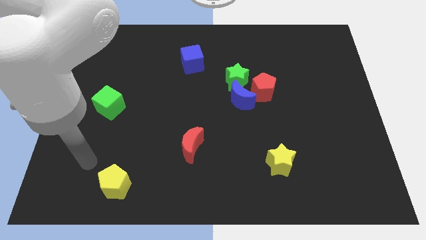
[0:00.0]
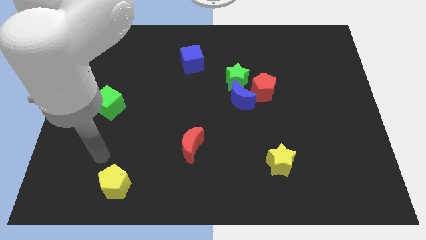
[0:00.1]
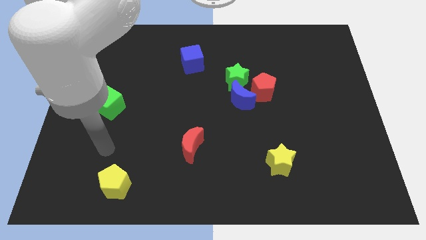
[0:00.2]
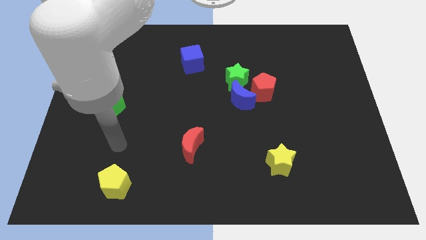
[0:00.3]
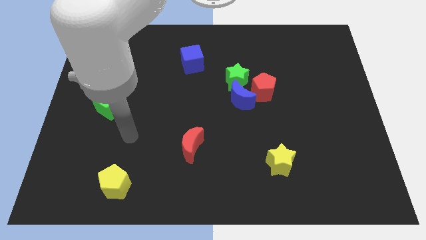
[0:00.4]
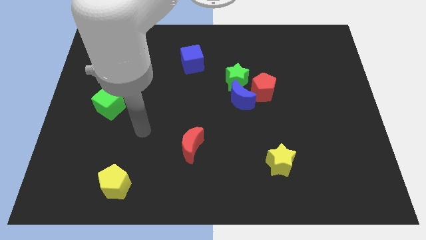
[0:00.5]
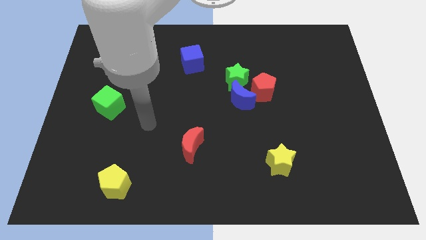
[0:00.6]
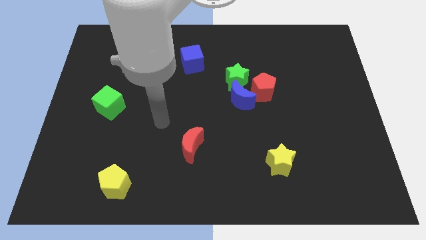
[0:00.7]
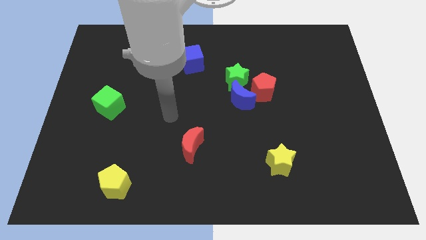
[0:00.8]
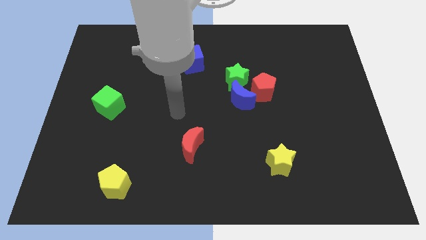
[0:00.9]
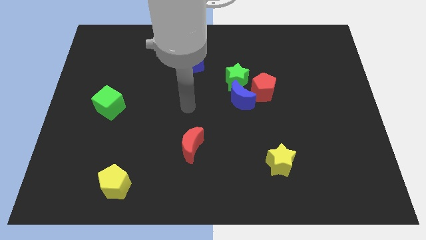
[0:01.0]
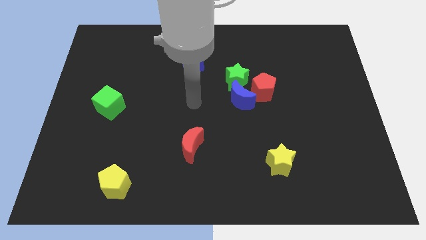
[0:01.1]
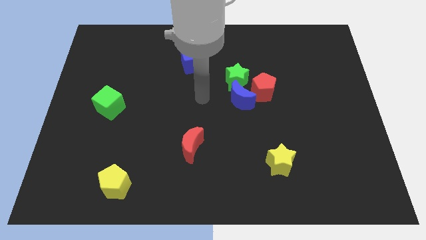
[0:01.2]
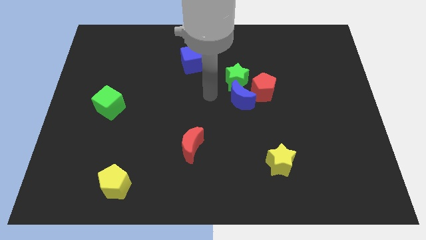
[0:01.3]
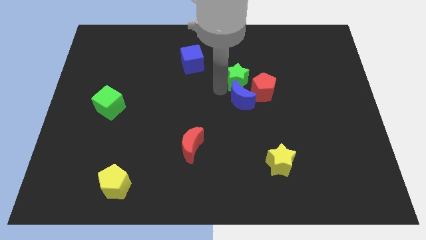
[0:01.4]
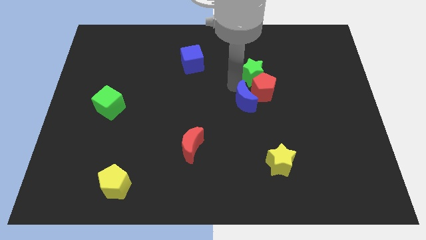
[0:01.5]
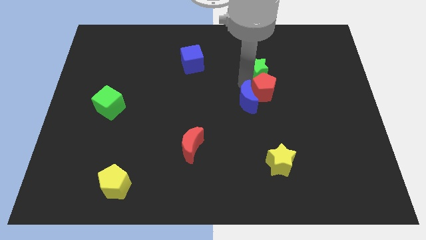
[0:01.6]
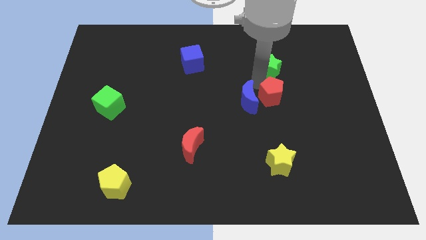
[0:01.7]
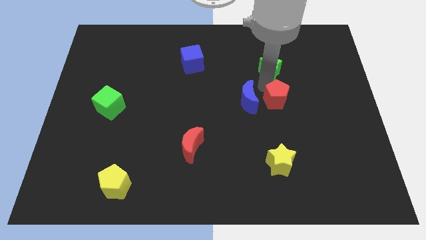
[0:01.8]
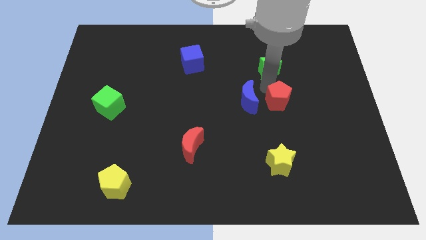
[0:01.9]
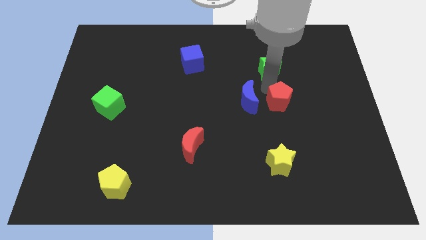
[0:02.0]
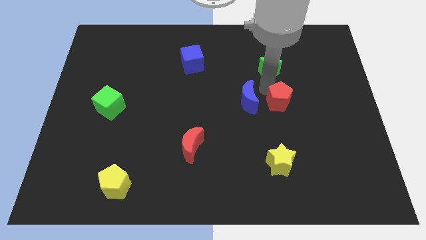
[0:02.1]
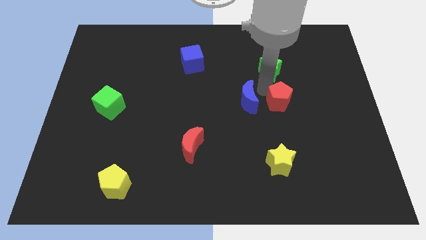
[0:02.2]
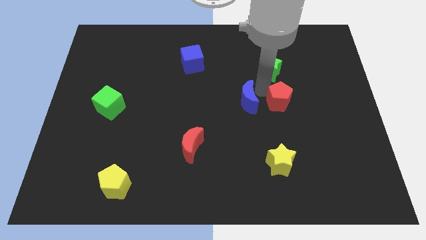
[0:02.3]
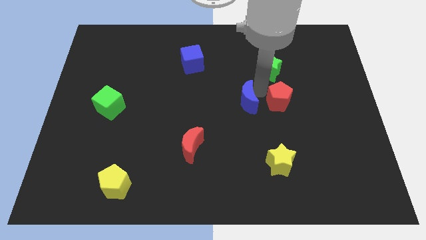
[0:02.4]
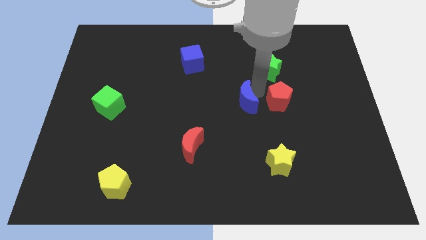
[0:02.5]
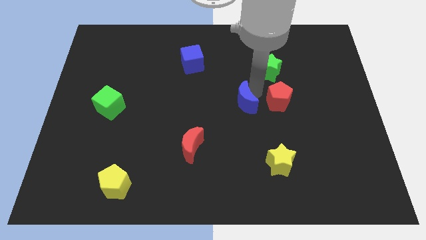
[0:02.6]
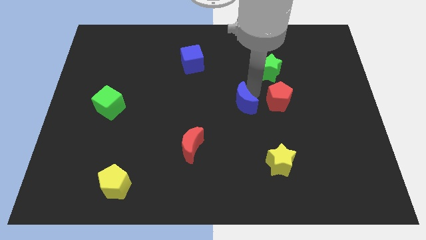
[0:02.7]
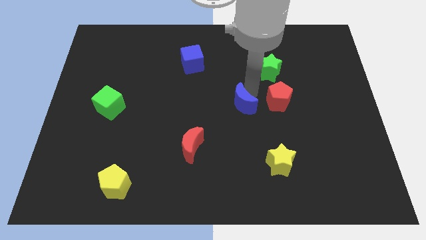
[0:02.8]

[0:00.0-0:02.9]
move the blue moon away from the green star and red pentagon

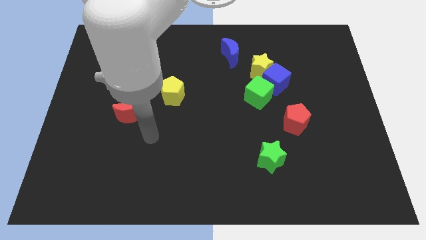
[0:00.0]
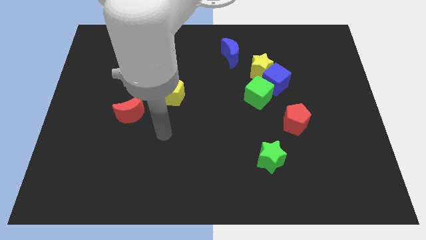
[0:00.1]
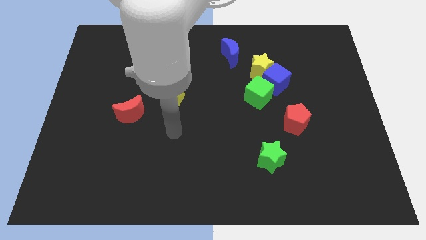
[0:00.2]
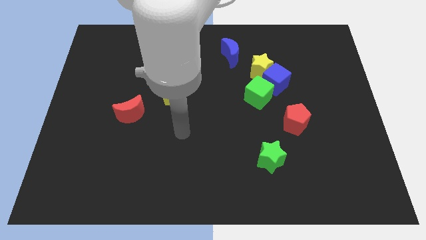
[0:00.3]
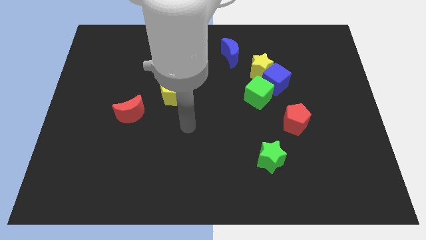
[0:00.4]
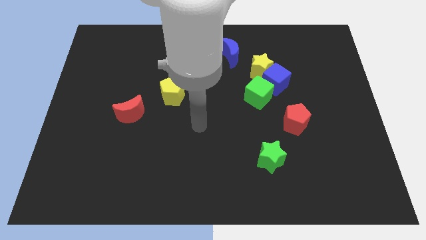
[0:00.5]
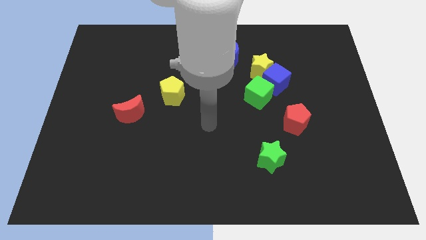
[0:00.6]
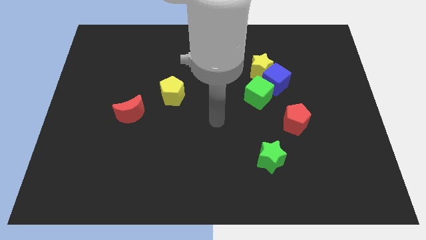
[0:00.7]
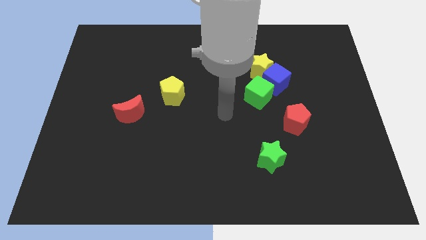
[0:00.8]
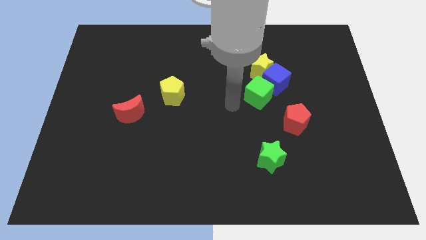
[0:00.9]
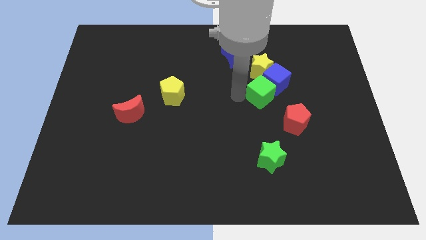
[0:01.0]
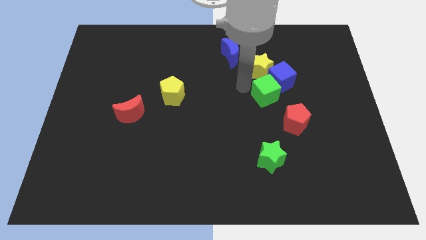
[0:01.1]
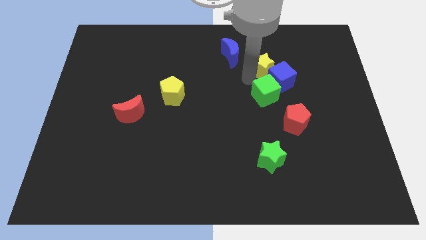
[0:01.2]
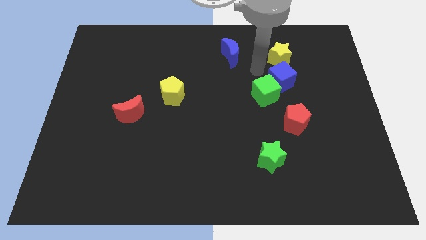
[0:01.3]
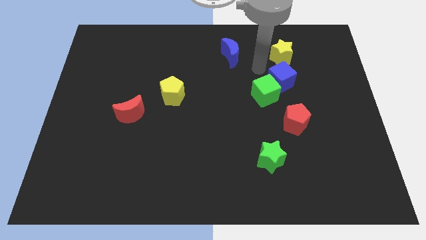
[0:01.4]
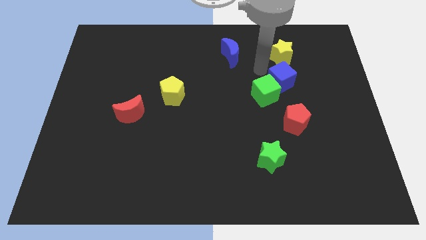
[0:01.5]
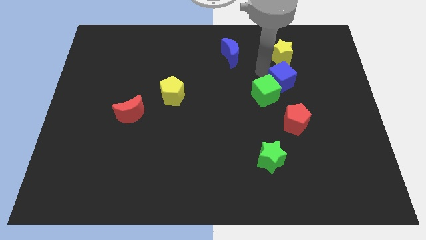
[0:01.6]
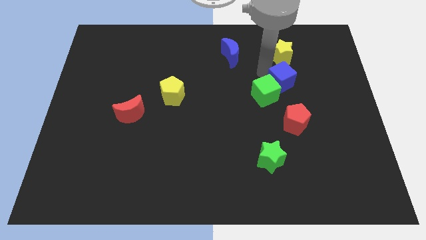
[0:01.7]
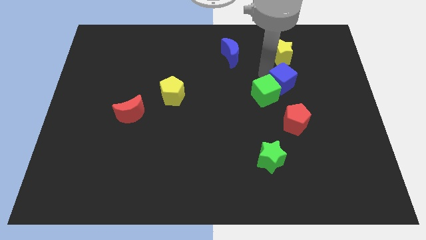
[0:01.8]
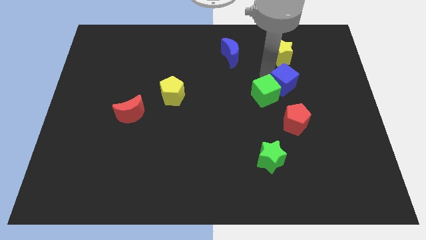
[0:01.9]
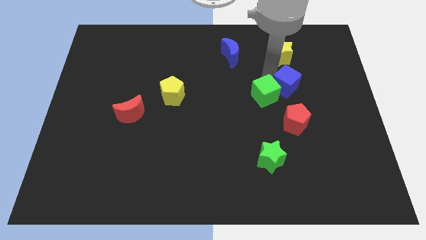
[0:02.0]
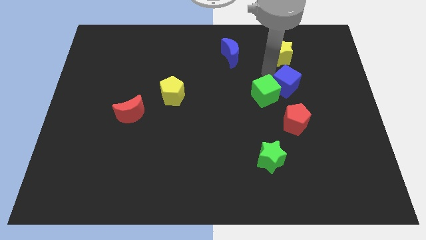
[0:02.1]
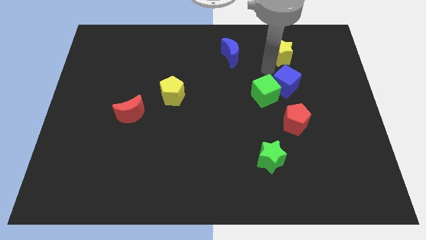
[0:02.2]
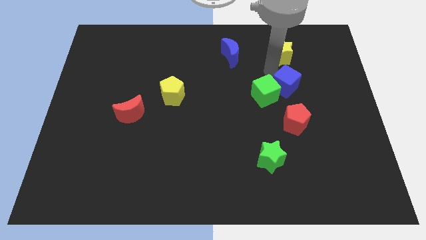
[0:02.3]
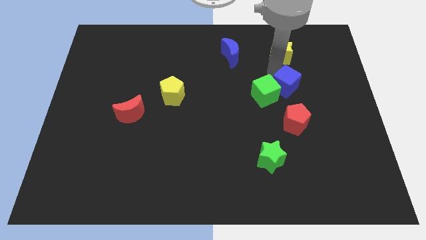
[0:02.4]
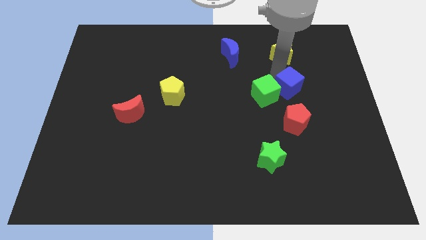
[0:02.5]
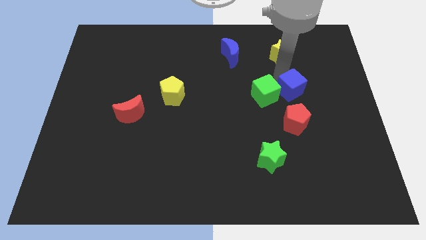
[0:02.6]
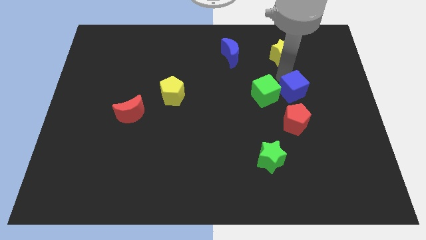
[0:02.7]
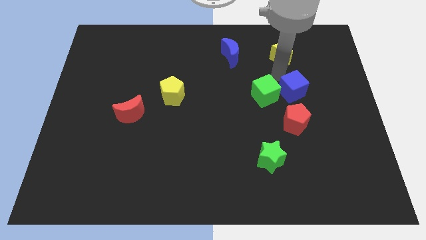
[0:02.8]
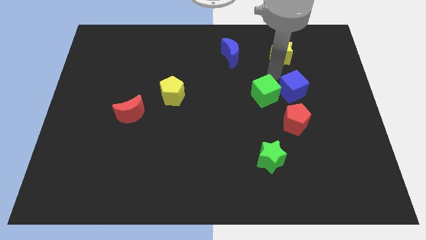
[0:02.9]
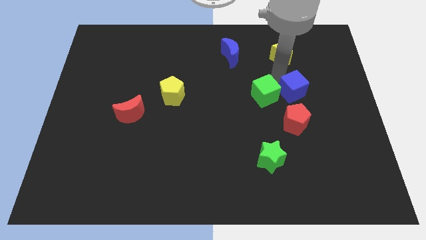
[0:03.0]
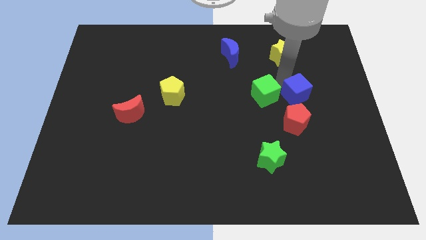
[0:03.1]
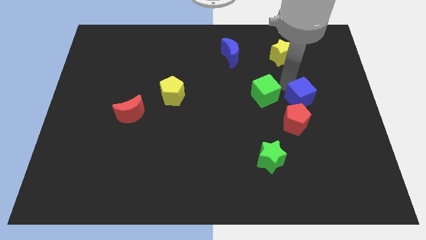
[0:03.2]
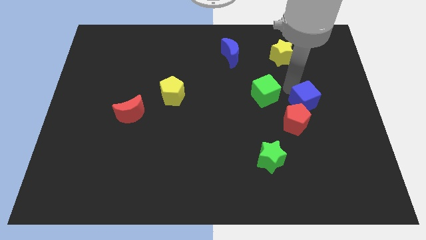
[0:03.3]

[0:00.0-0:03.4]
separate the blue cube from the yellow star and green cube

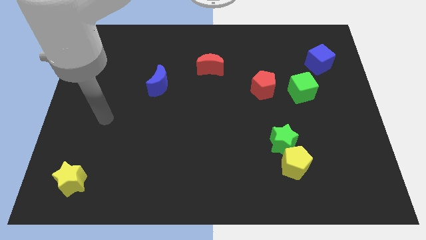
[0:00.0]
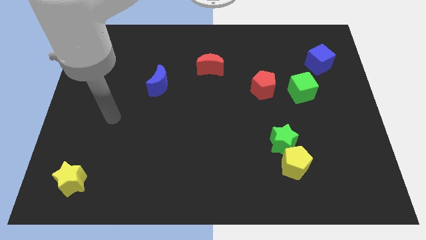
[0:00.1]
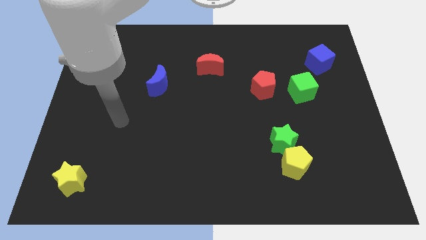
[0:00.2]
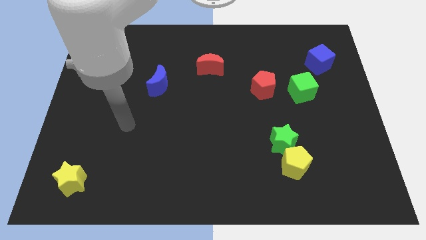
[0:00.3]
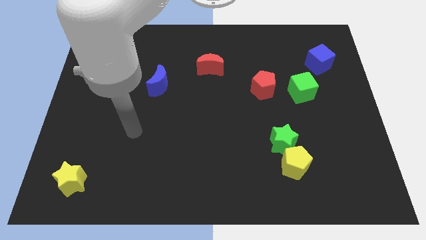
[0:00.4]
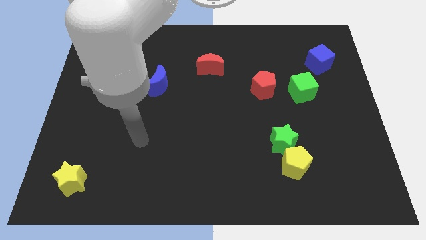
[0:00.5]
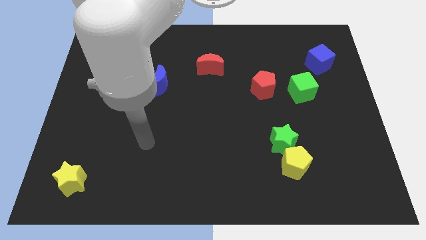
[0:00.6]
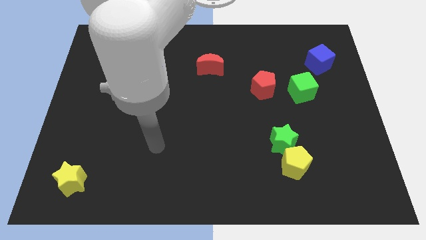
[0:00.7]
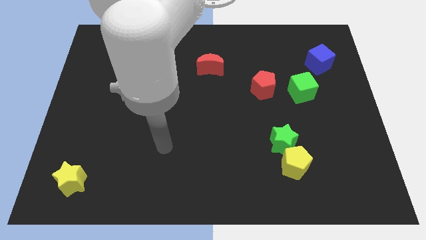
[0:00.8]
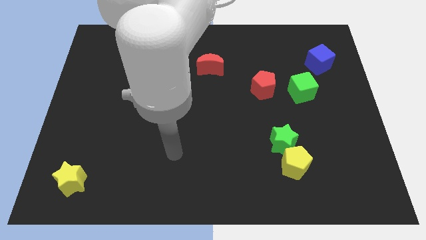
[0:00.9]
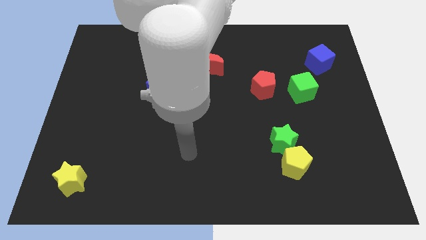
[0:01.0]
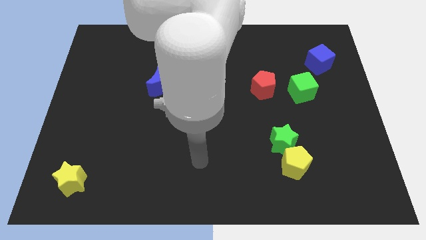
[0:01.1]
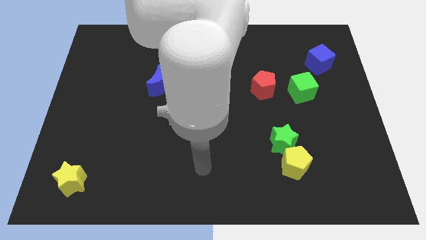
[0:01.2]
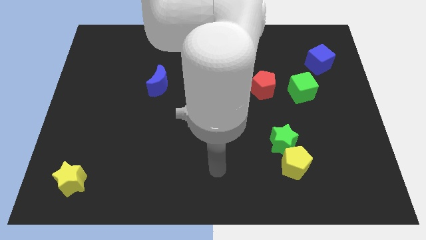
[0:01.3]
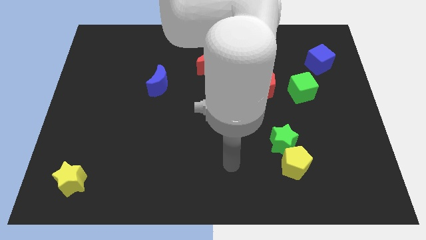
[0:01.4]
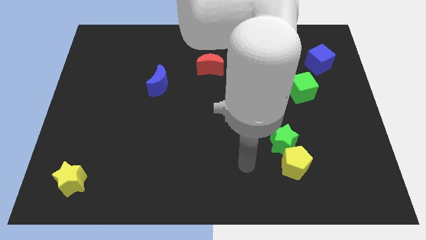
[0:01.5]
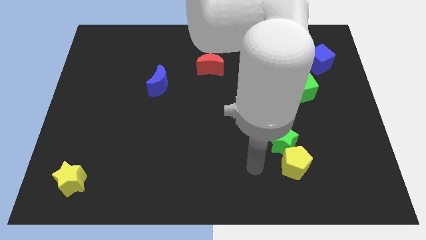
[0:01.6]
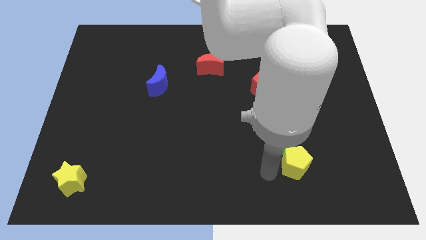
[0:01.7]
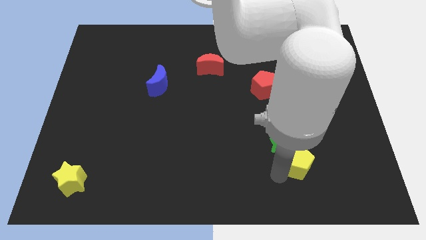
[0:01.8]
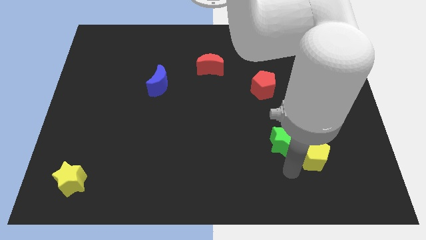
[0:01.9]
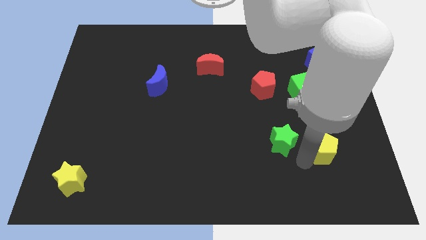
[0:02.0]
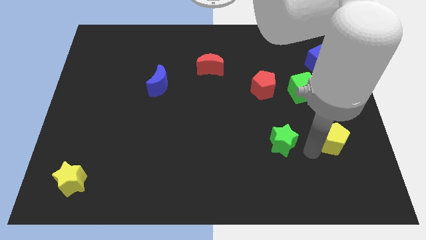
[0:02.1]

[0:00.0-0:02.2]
separate the green star from the yellow pentagon

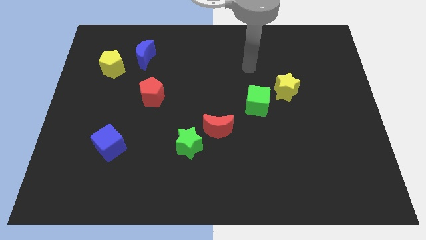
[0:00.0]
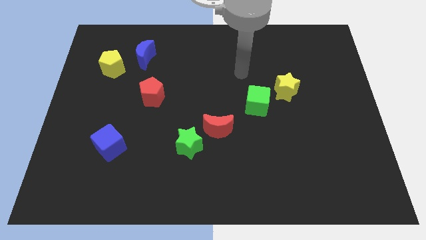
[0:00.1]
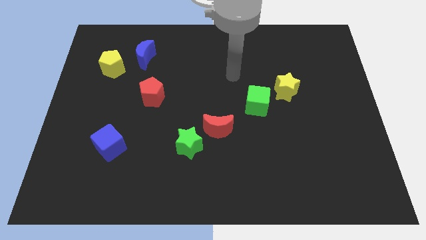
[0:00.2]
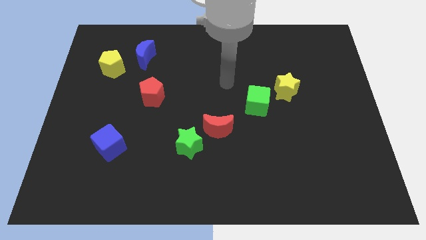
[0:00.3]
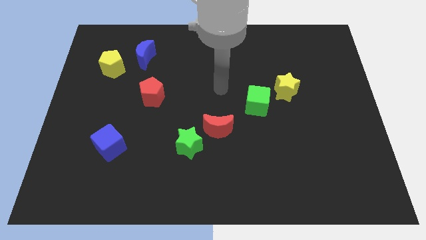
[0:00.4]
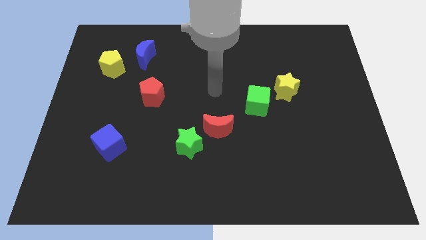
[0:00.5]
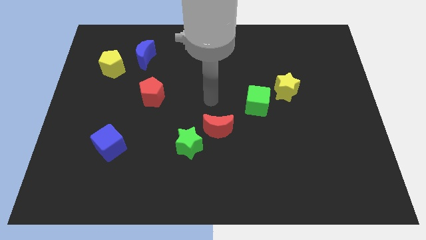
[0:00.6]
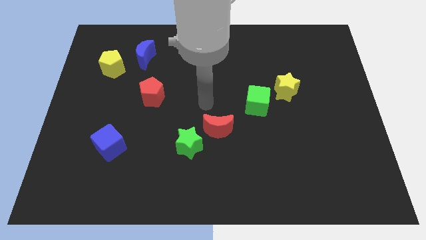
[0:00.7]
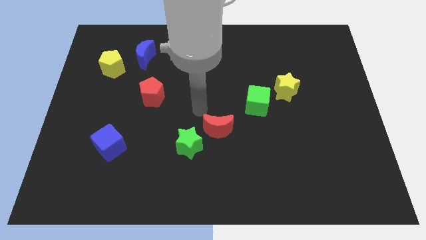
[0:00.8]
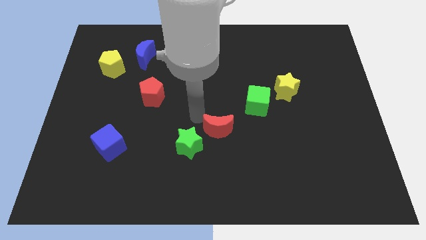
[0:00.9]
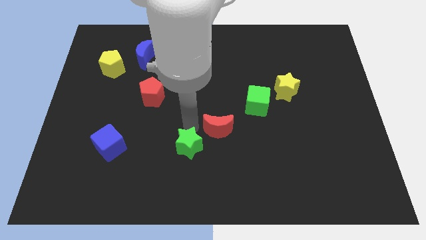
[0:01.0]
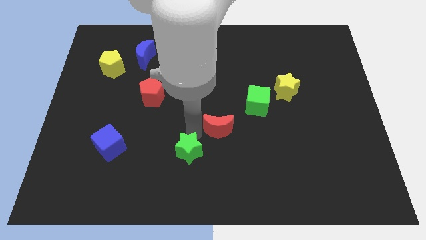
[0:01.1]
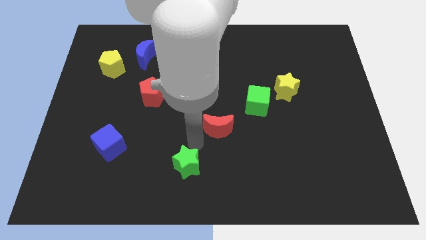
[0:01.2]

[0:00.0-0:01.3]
move the red moon away from the green star
